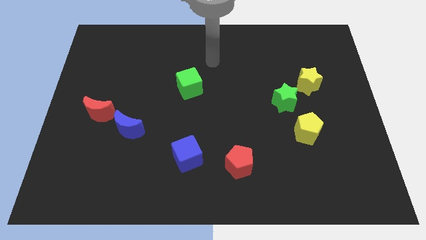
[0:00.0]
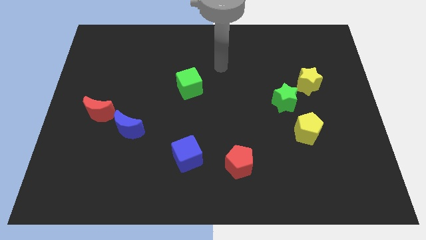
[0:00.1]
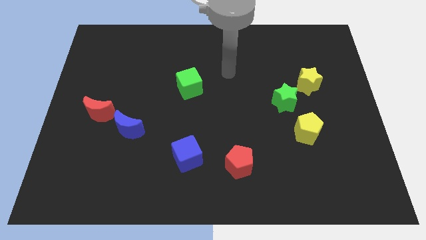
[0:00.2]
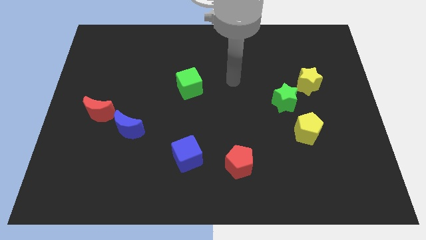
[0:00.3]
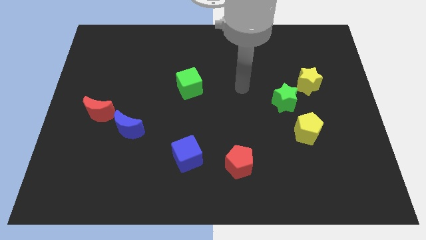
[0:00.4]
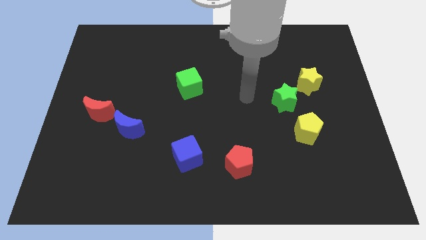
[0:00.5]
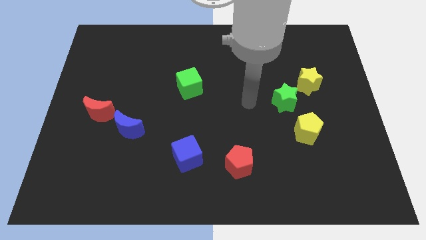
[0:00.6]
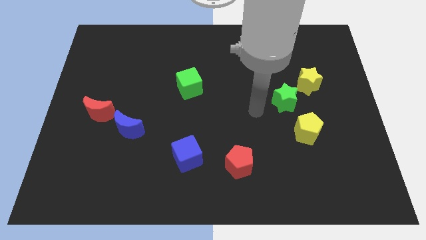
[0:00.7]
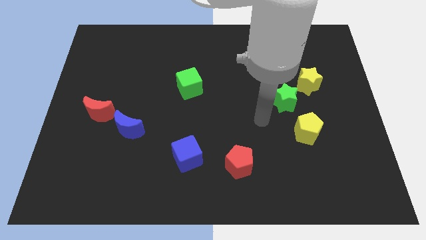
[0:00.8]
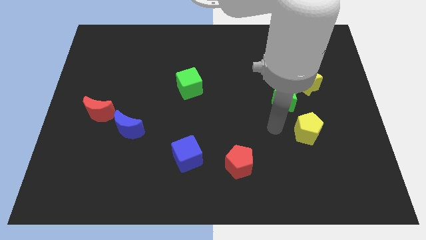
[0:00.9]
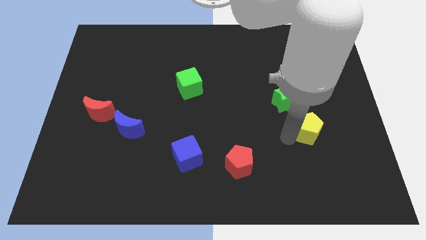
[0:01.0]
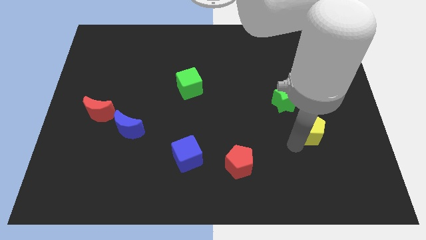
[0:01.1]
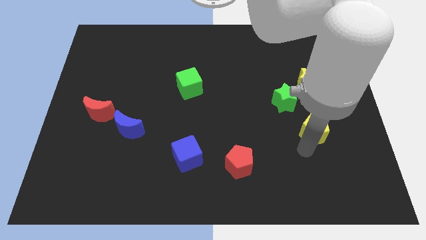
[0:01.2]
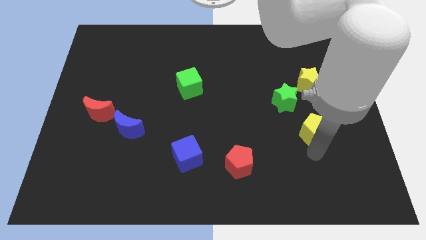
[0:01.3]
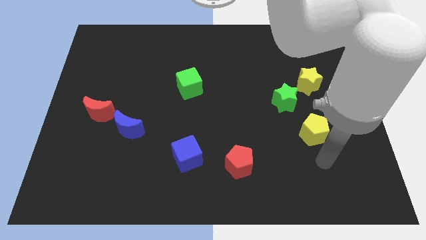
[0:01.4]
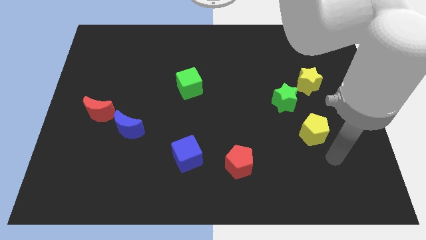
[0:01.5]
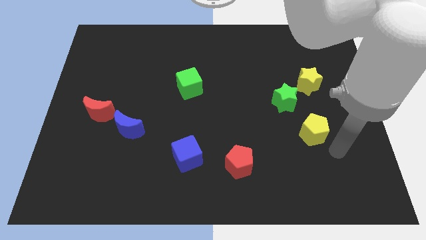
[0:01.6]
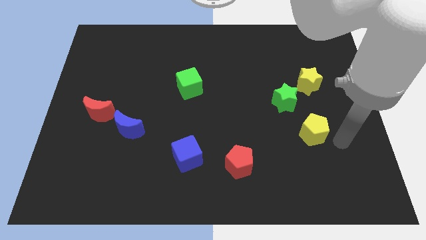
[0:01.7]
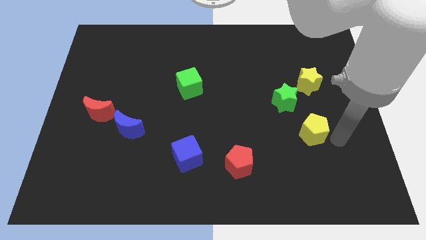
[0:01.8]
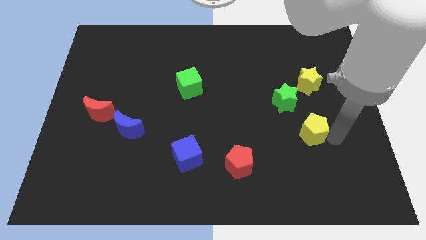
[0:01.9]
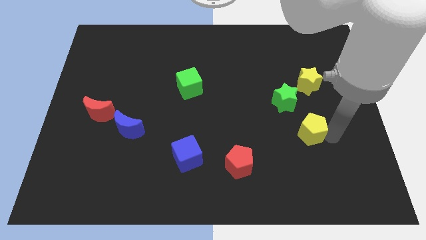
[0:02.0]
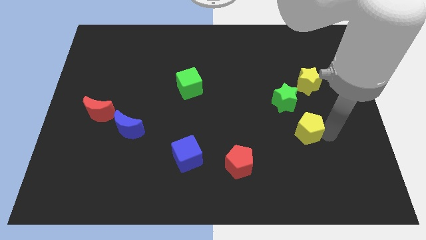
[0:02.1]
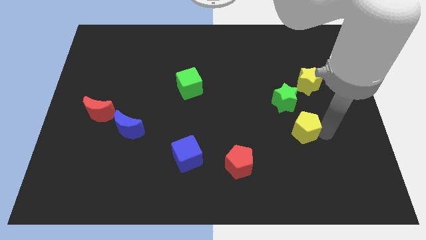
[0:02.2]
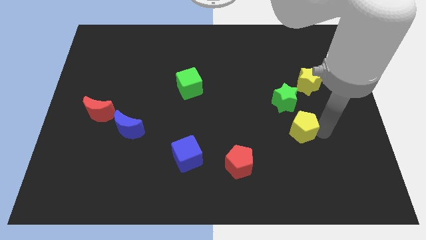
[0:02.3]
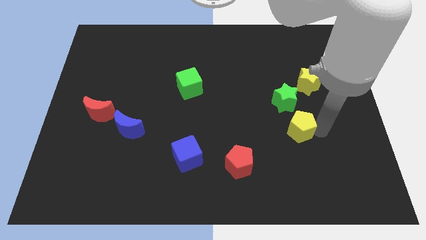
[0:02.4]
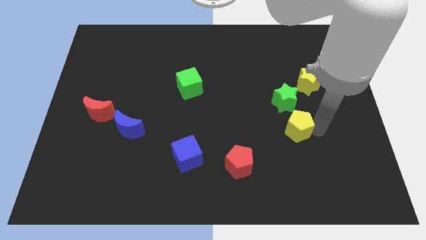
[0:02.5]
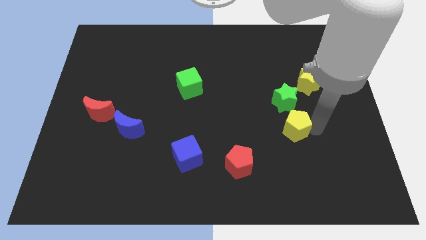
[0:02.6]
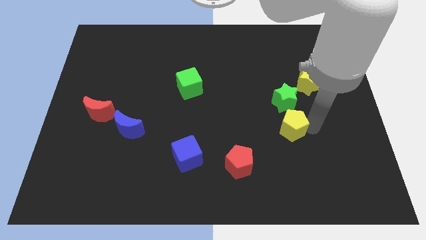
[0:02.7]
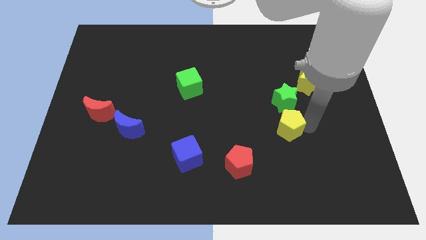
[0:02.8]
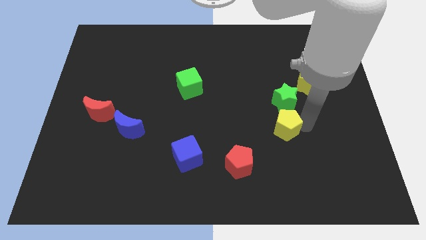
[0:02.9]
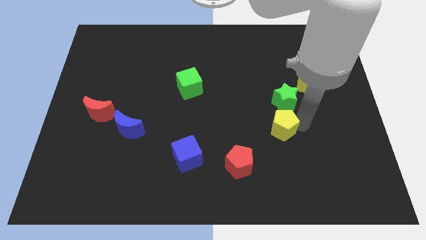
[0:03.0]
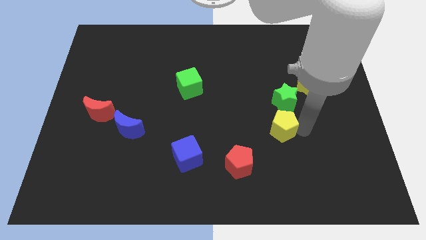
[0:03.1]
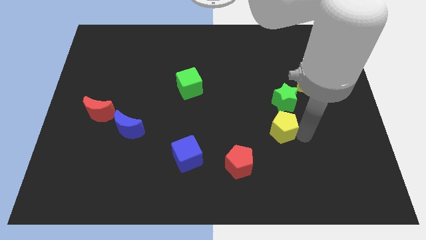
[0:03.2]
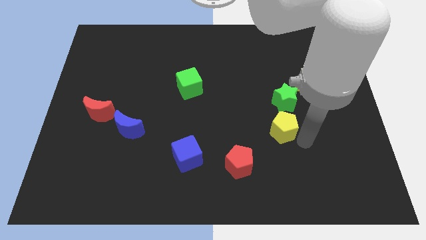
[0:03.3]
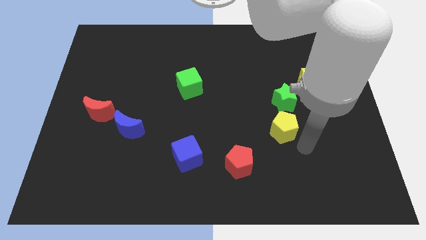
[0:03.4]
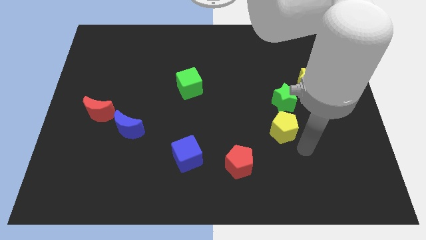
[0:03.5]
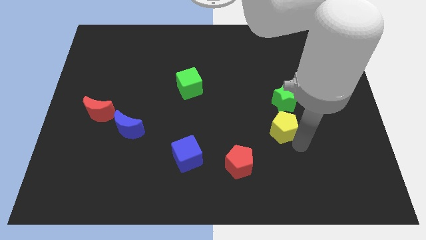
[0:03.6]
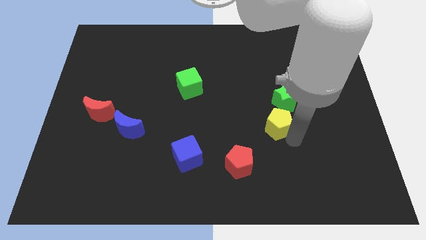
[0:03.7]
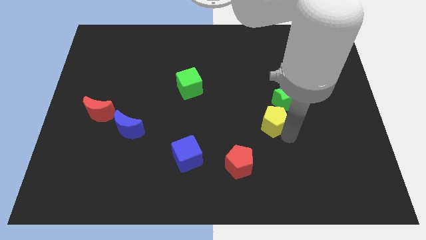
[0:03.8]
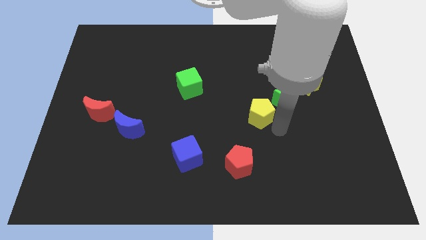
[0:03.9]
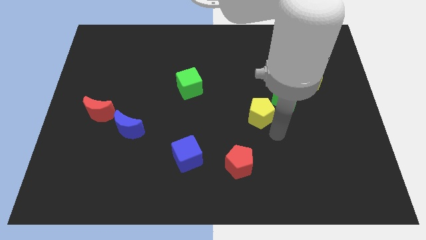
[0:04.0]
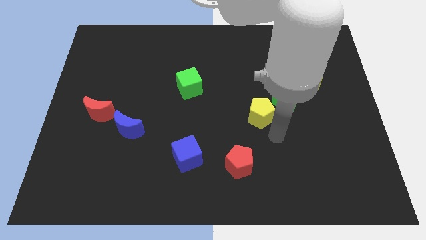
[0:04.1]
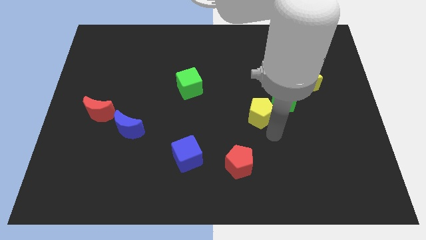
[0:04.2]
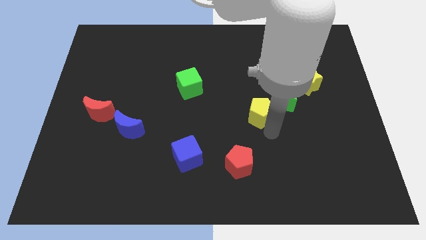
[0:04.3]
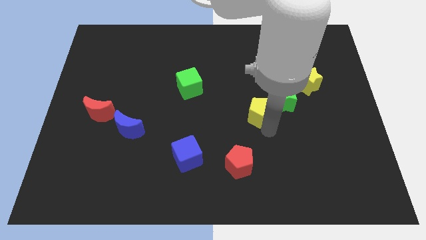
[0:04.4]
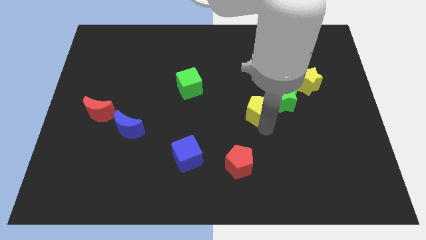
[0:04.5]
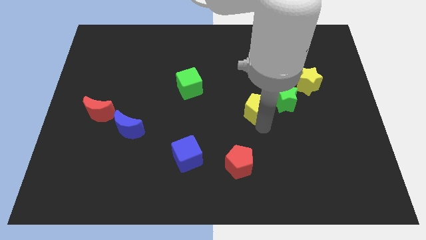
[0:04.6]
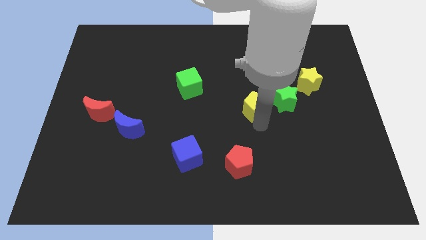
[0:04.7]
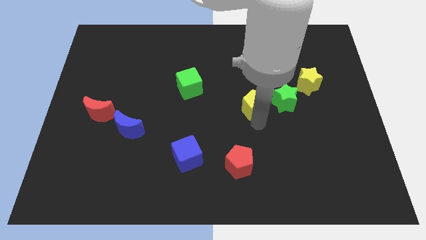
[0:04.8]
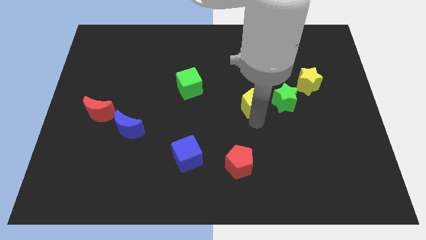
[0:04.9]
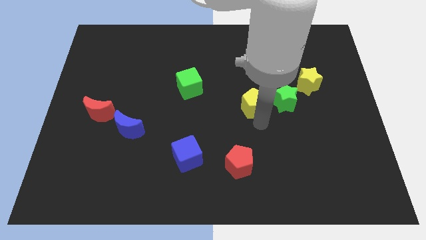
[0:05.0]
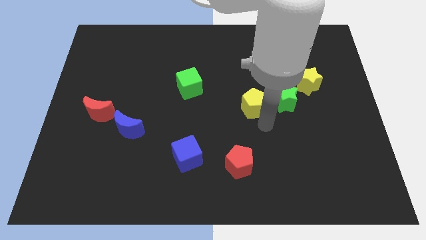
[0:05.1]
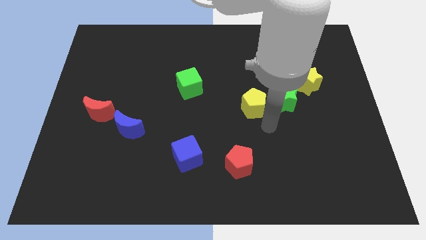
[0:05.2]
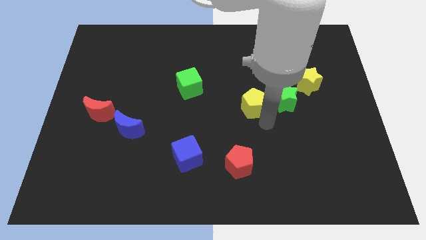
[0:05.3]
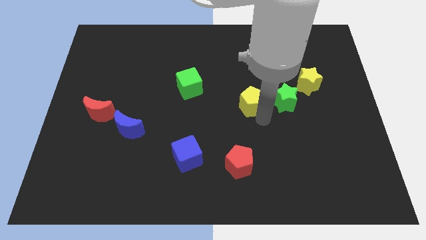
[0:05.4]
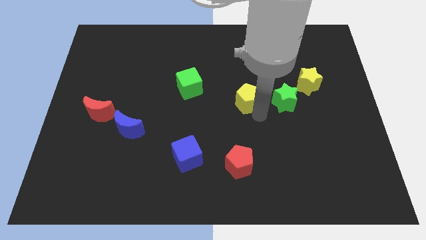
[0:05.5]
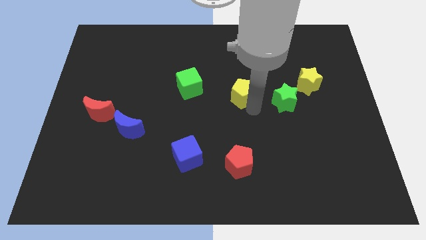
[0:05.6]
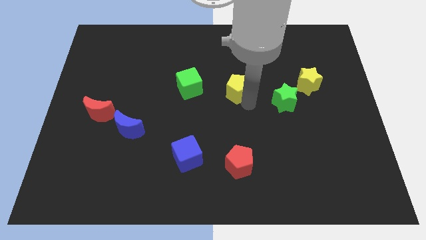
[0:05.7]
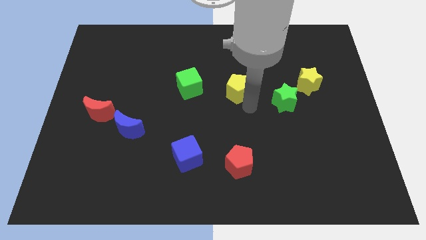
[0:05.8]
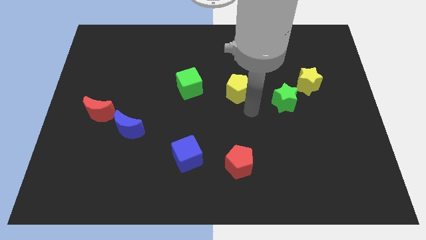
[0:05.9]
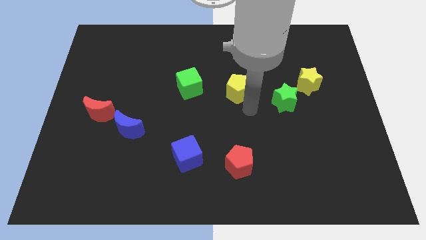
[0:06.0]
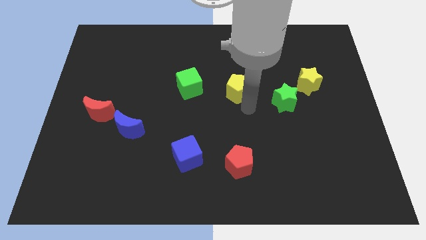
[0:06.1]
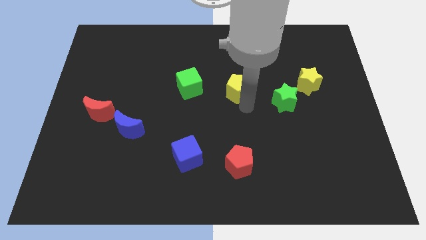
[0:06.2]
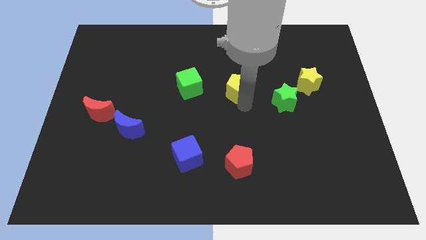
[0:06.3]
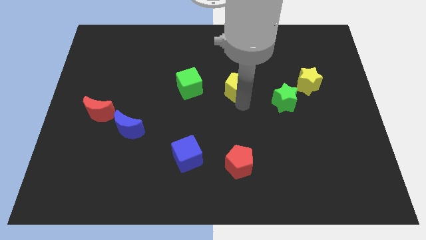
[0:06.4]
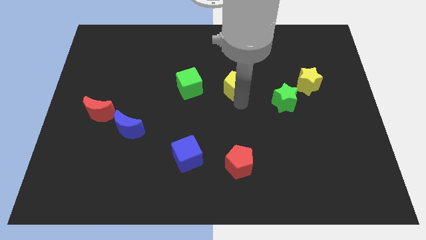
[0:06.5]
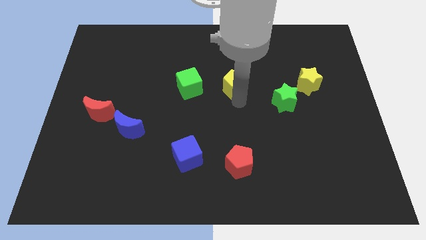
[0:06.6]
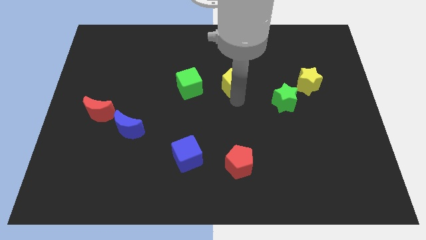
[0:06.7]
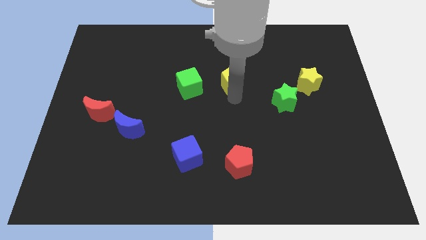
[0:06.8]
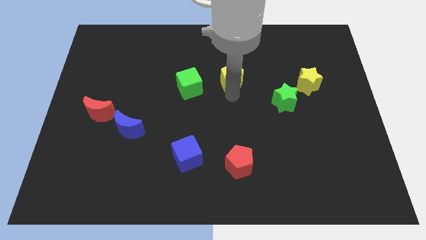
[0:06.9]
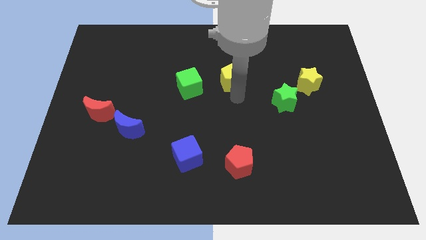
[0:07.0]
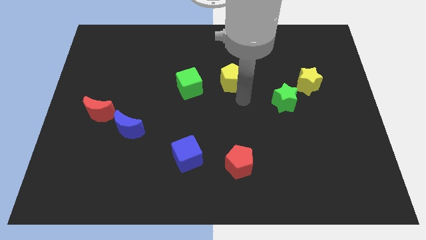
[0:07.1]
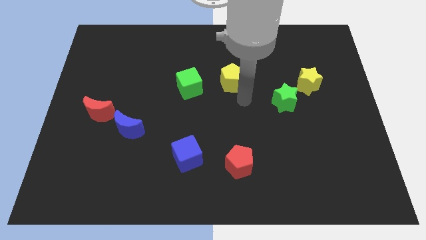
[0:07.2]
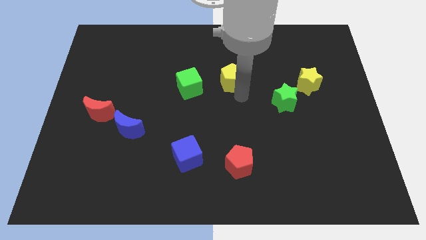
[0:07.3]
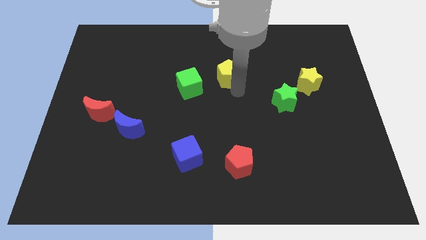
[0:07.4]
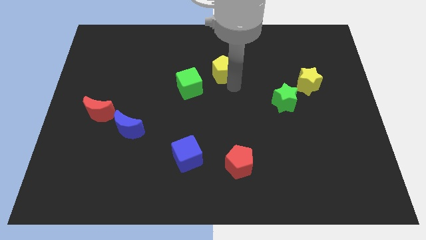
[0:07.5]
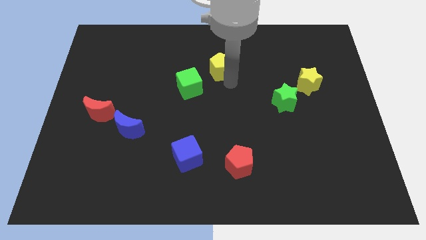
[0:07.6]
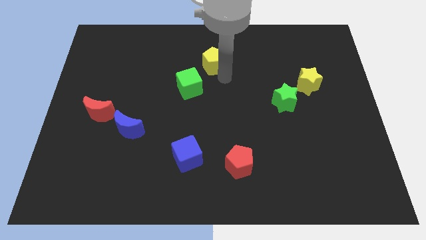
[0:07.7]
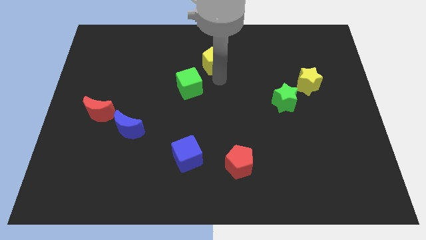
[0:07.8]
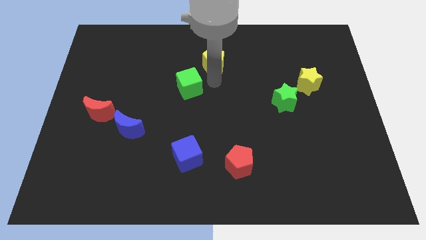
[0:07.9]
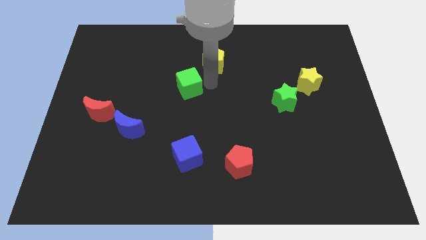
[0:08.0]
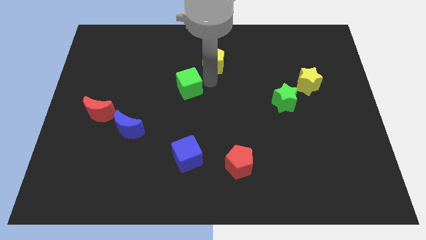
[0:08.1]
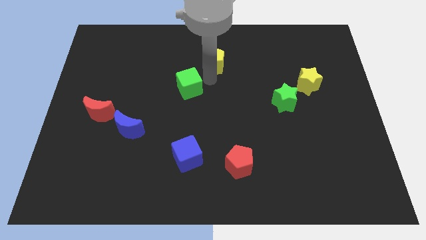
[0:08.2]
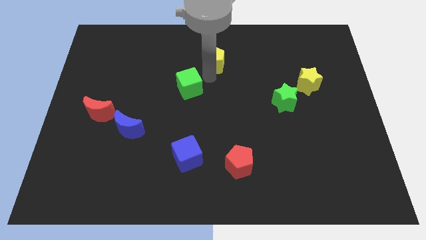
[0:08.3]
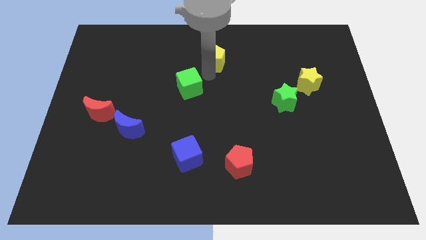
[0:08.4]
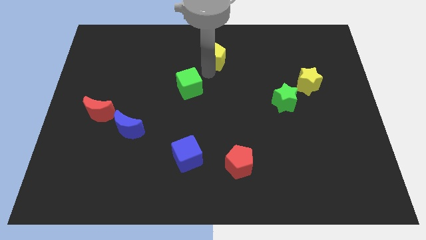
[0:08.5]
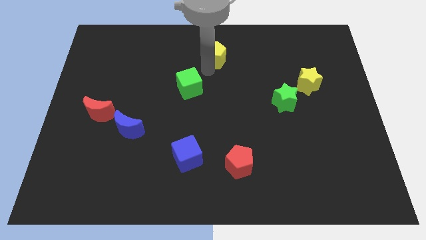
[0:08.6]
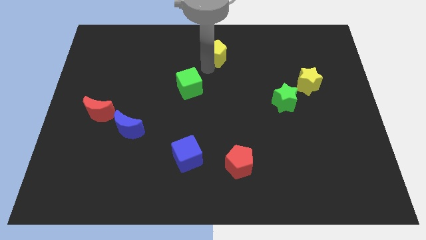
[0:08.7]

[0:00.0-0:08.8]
put the yellow pentagon to the top side
